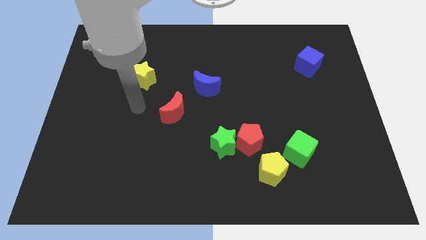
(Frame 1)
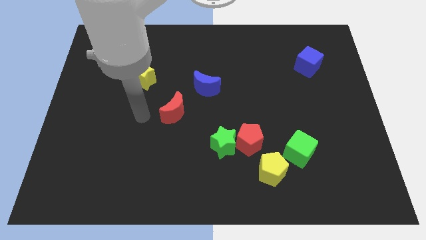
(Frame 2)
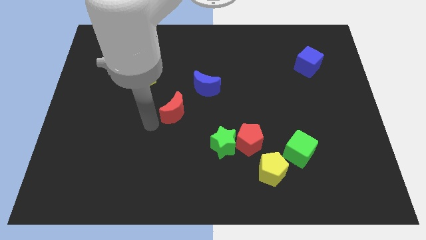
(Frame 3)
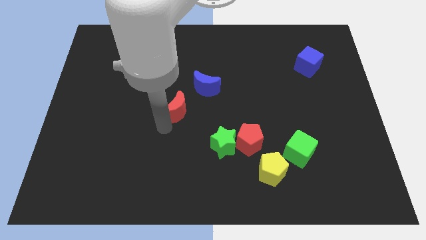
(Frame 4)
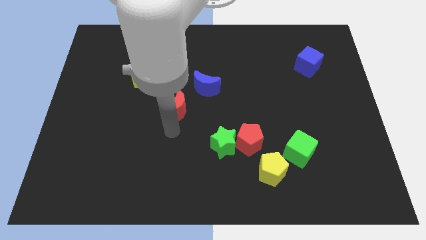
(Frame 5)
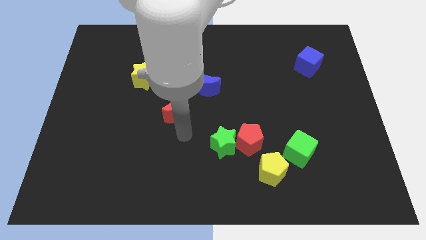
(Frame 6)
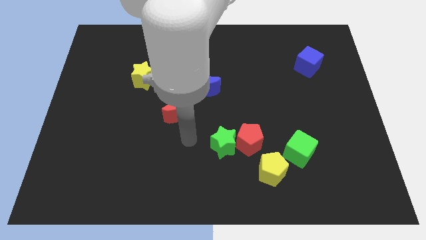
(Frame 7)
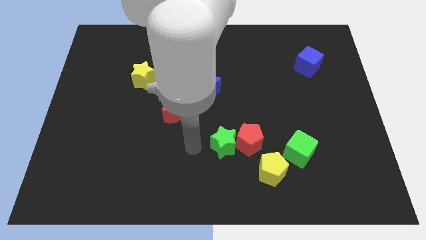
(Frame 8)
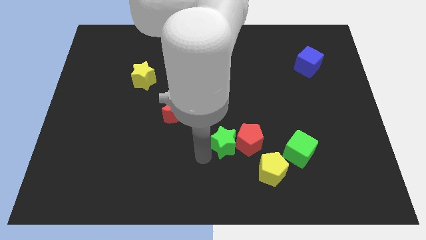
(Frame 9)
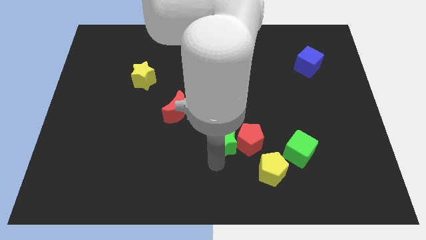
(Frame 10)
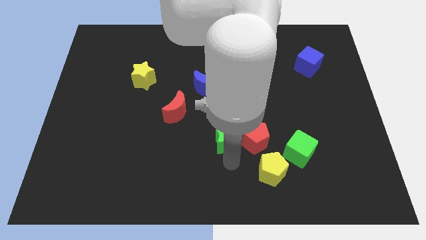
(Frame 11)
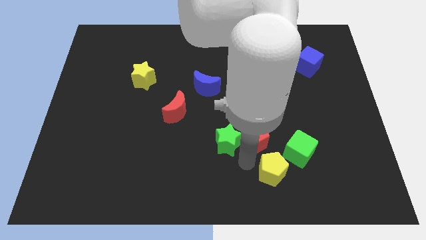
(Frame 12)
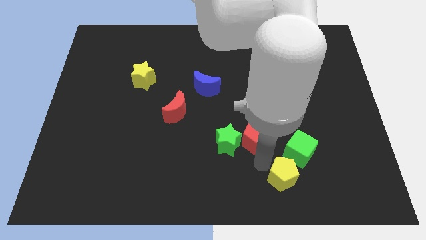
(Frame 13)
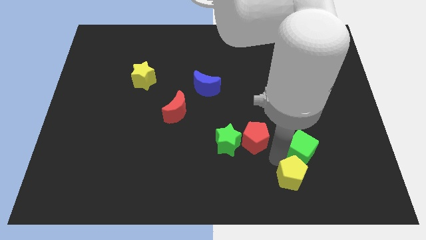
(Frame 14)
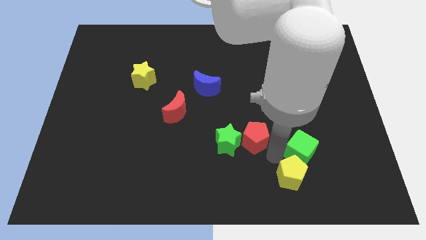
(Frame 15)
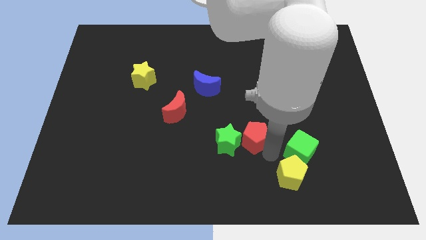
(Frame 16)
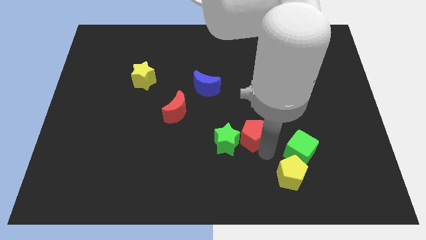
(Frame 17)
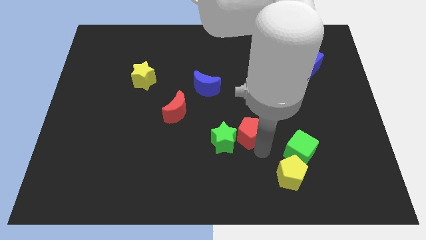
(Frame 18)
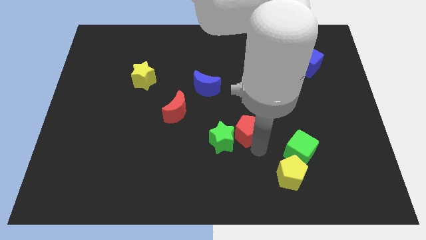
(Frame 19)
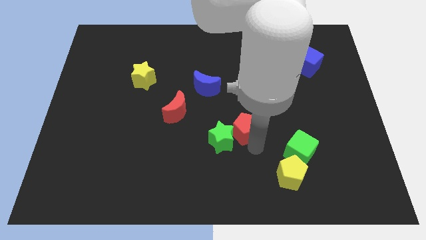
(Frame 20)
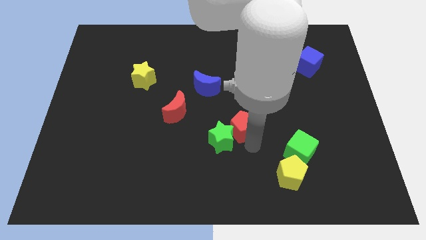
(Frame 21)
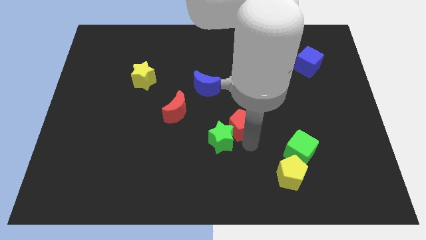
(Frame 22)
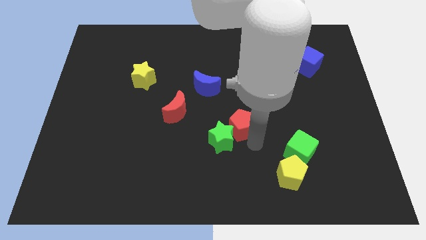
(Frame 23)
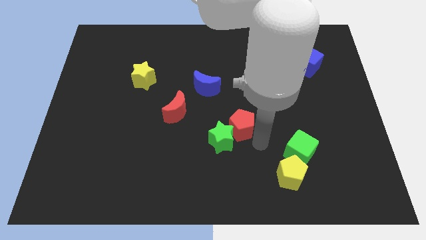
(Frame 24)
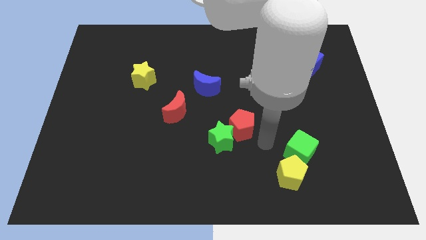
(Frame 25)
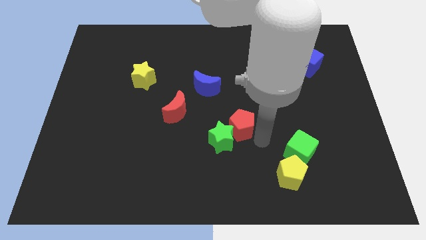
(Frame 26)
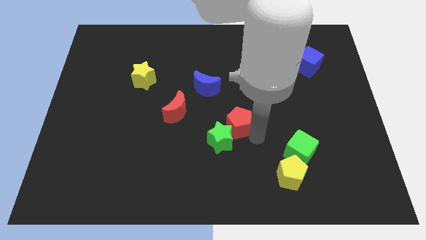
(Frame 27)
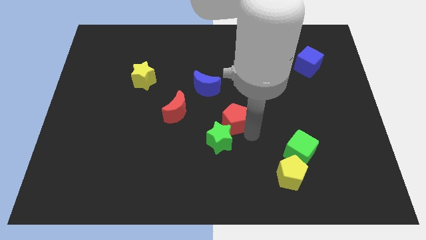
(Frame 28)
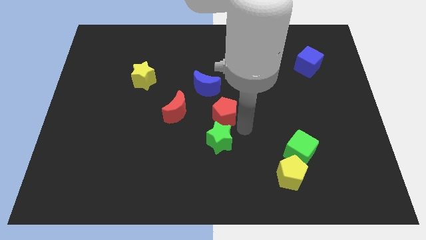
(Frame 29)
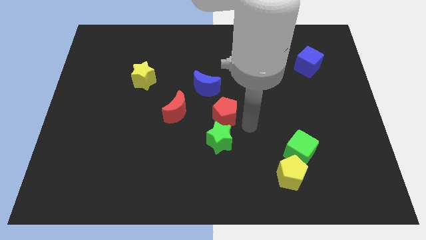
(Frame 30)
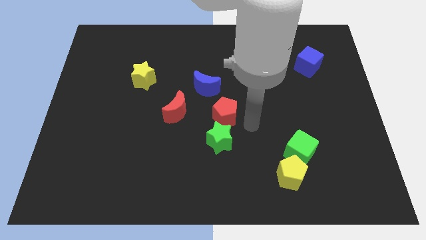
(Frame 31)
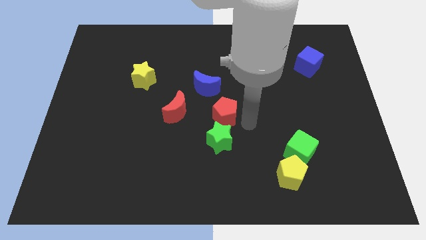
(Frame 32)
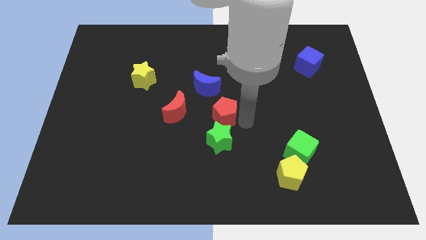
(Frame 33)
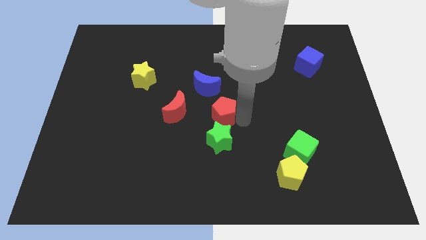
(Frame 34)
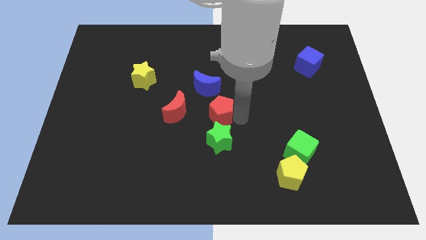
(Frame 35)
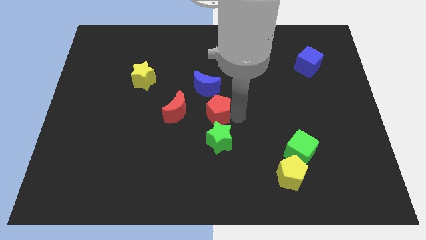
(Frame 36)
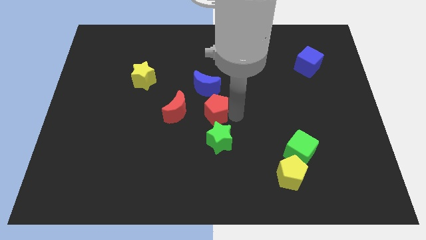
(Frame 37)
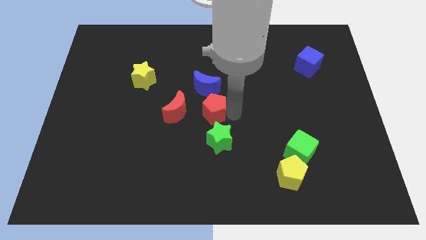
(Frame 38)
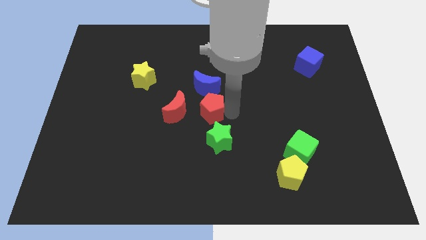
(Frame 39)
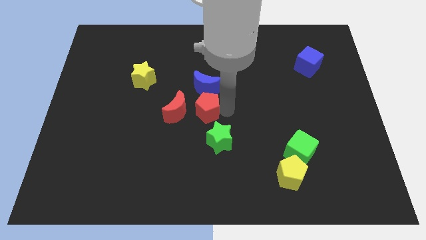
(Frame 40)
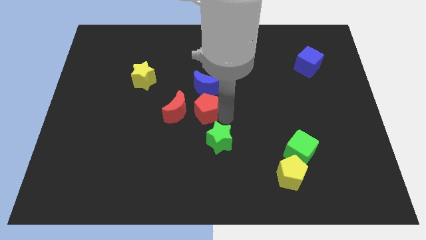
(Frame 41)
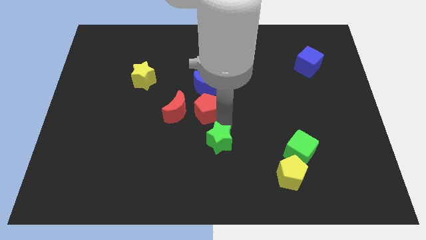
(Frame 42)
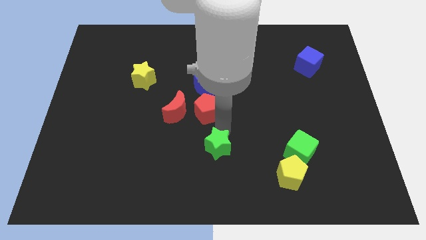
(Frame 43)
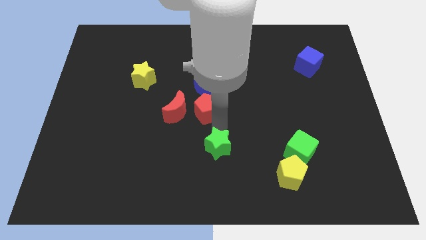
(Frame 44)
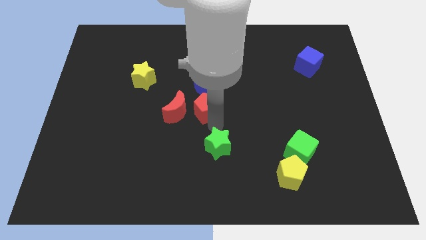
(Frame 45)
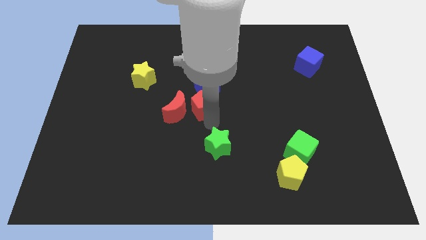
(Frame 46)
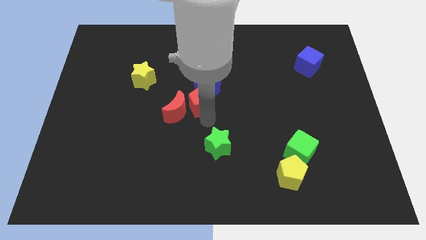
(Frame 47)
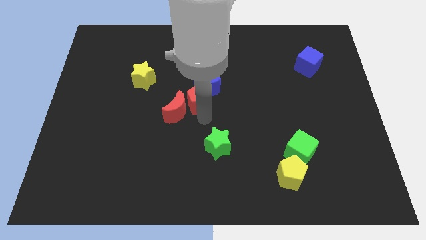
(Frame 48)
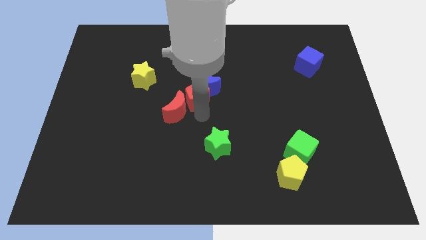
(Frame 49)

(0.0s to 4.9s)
push the red pentagon to the top of the red moon

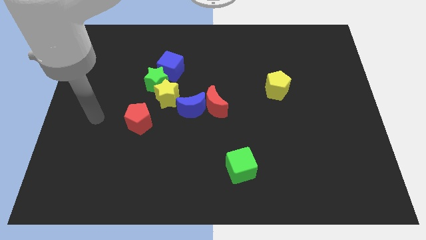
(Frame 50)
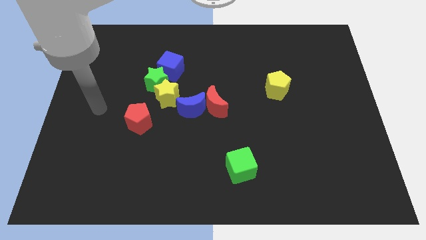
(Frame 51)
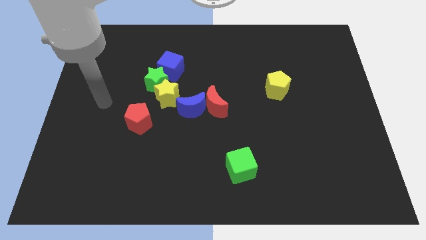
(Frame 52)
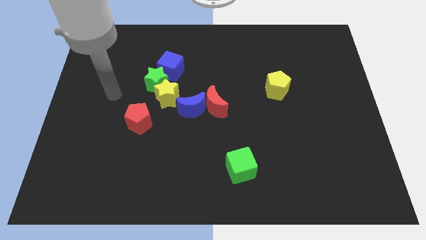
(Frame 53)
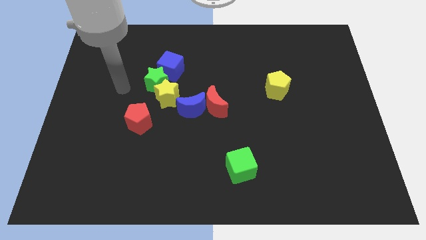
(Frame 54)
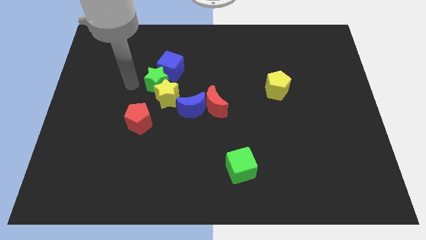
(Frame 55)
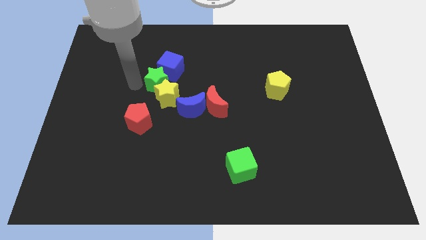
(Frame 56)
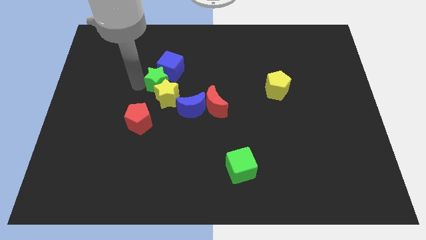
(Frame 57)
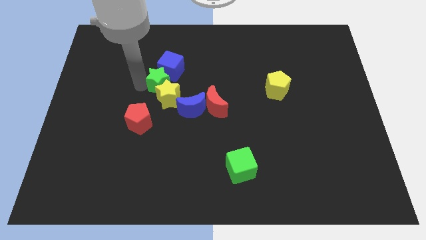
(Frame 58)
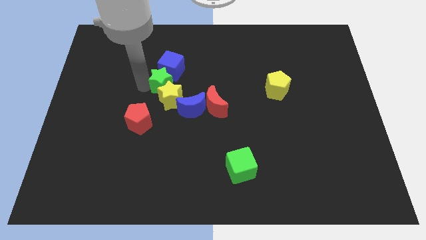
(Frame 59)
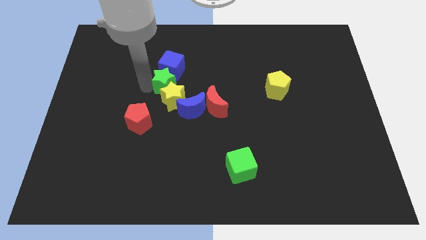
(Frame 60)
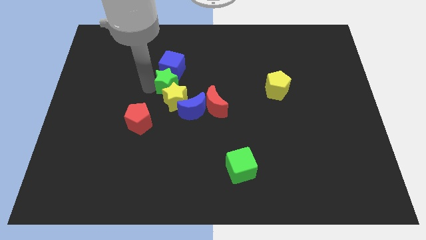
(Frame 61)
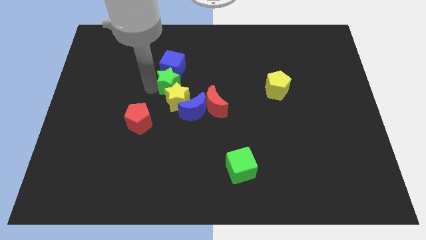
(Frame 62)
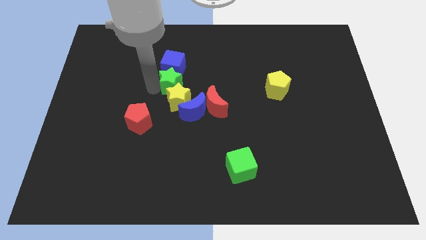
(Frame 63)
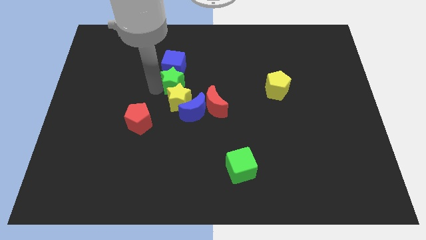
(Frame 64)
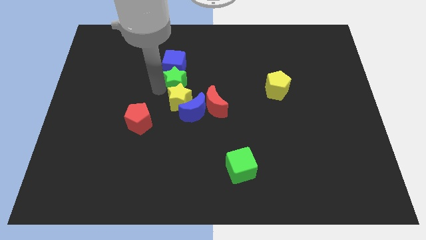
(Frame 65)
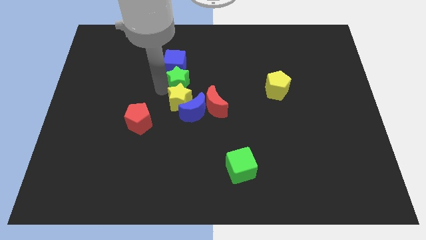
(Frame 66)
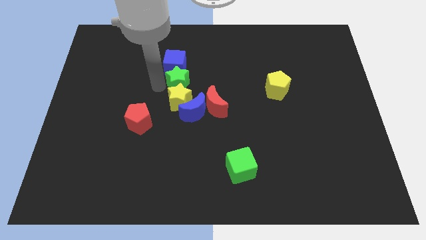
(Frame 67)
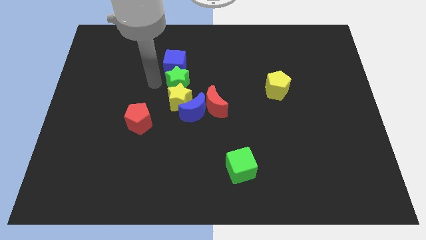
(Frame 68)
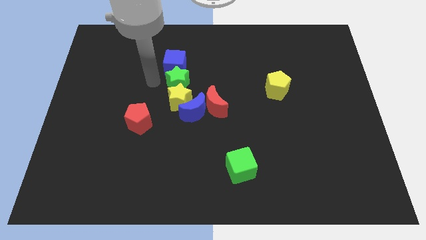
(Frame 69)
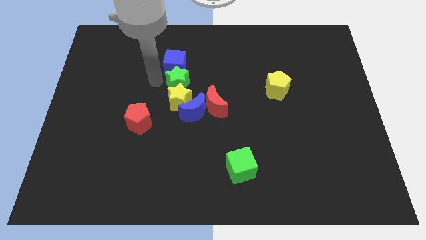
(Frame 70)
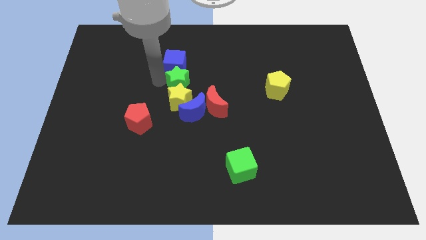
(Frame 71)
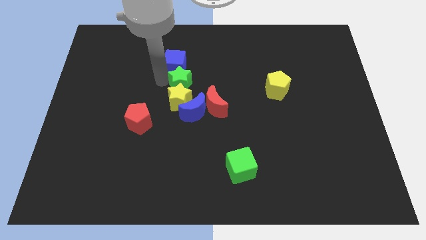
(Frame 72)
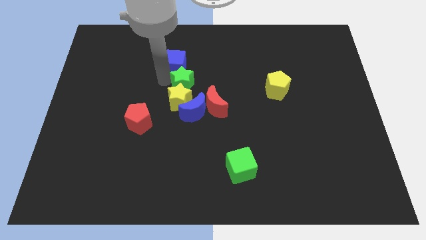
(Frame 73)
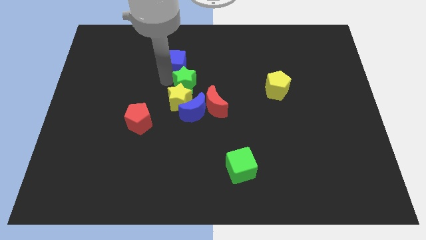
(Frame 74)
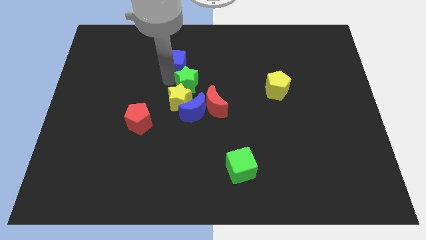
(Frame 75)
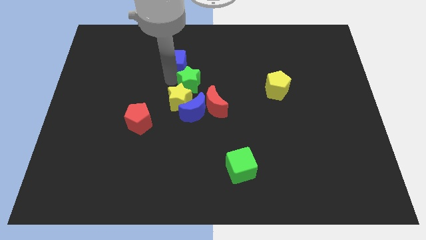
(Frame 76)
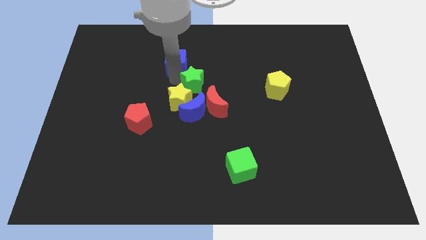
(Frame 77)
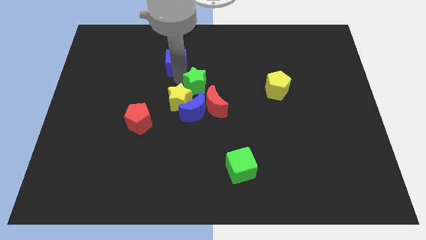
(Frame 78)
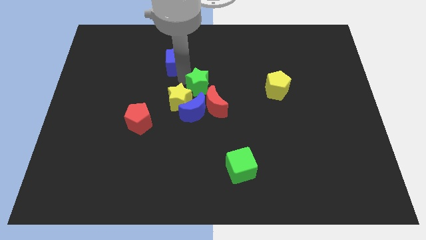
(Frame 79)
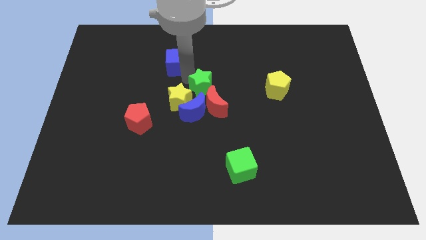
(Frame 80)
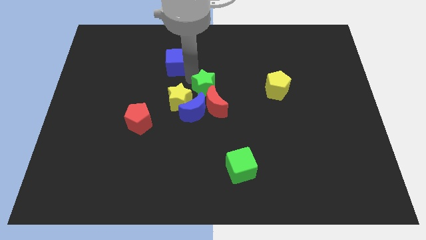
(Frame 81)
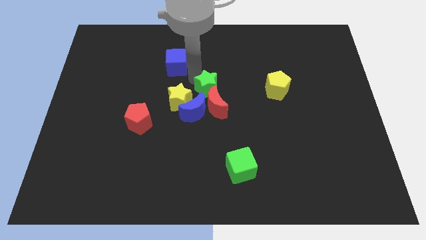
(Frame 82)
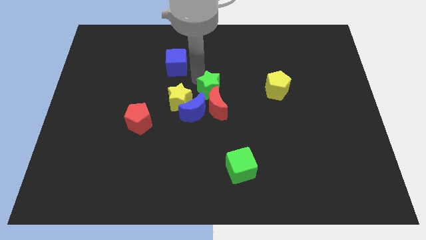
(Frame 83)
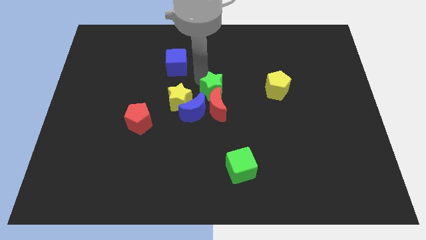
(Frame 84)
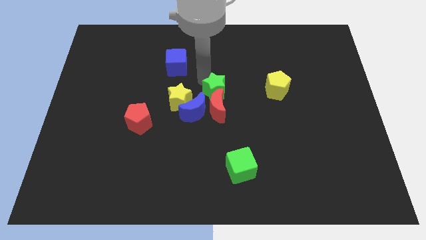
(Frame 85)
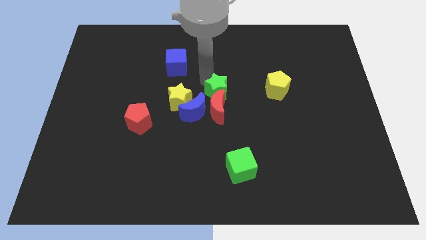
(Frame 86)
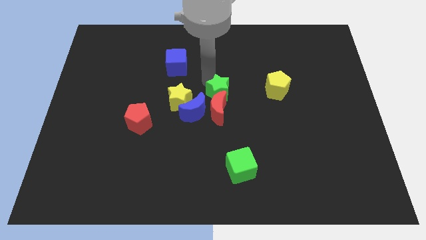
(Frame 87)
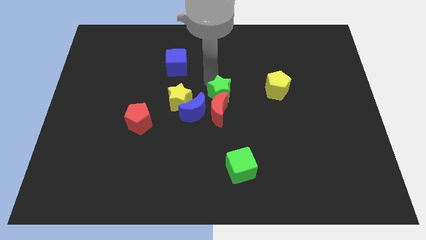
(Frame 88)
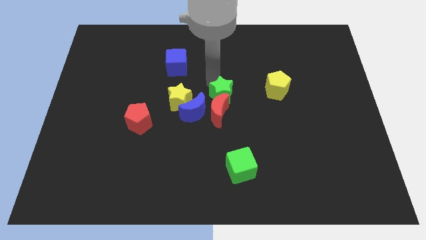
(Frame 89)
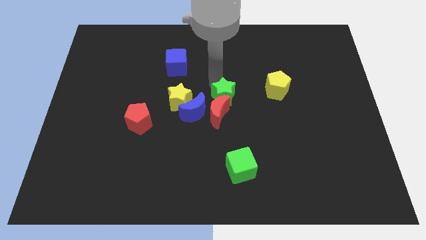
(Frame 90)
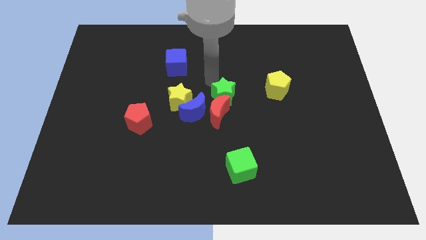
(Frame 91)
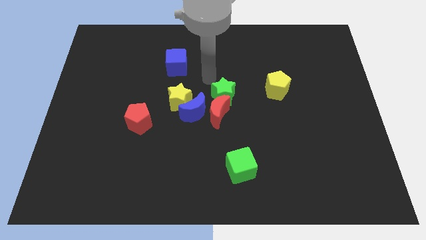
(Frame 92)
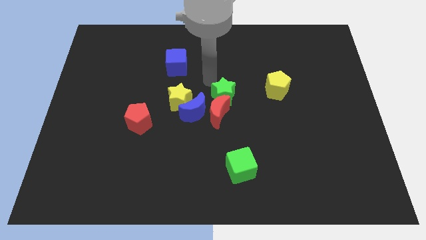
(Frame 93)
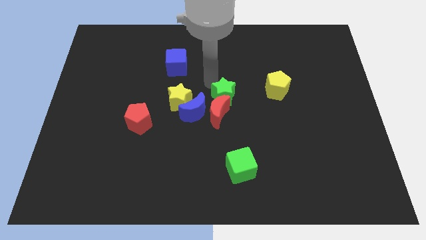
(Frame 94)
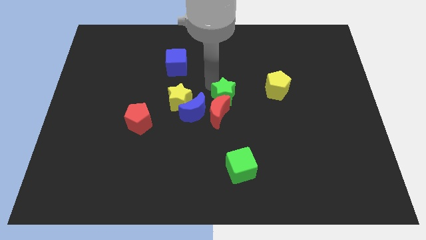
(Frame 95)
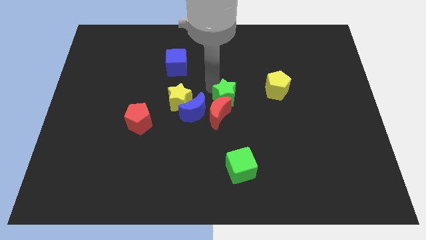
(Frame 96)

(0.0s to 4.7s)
put the green star to the right of the blue moon
